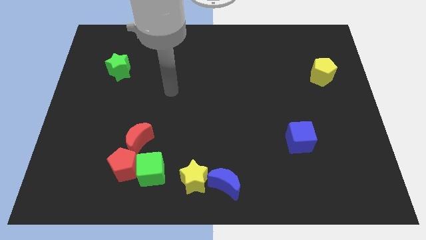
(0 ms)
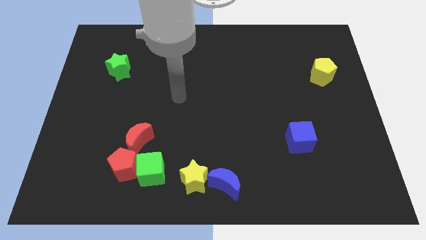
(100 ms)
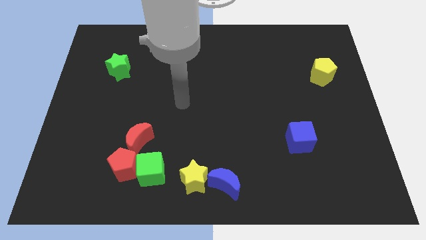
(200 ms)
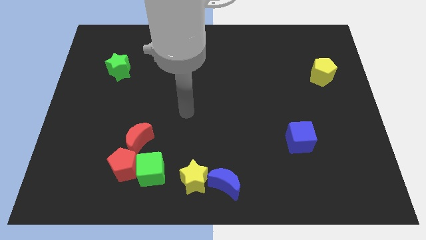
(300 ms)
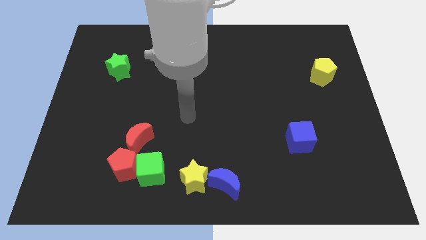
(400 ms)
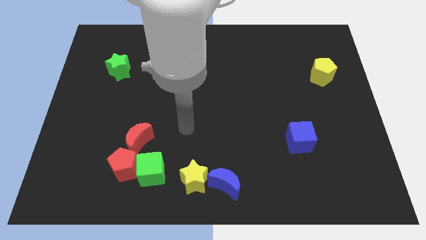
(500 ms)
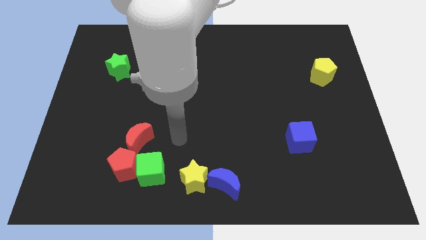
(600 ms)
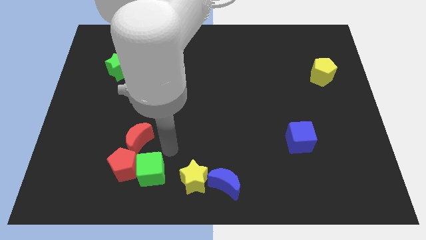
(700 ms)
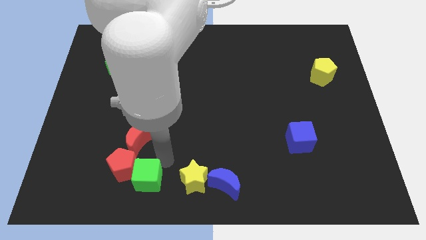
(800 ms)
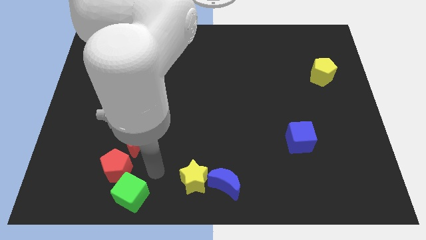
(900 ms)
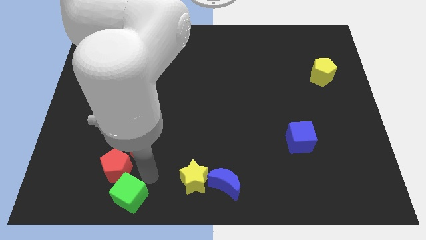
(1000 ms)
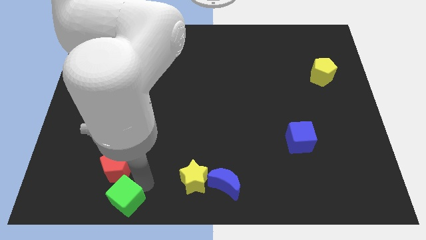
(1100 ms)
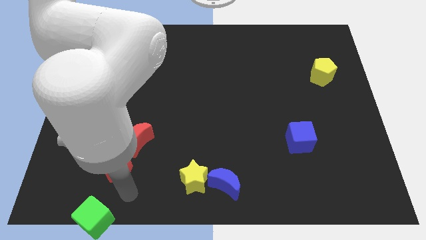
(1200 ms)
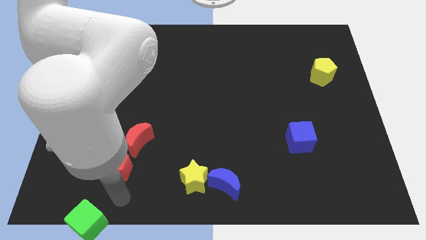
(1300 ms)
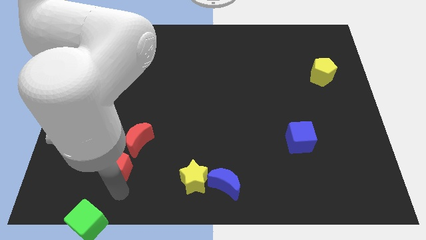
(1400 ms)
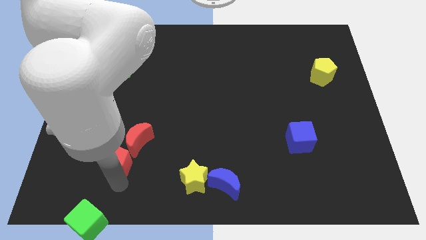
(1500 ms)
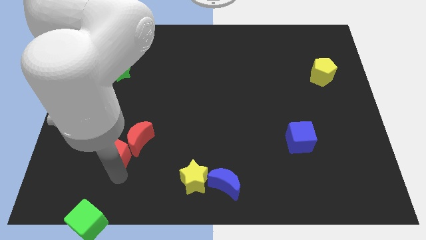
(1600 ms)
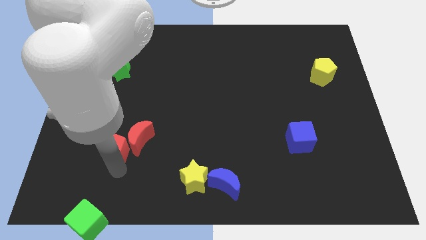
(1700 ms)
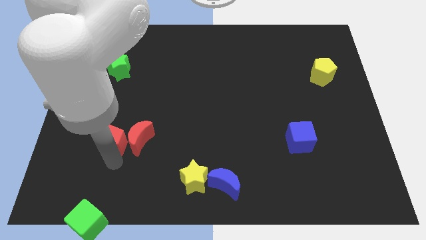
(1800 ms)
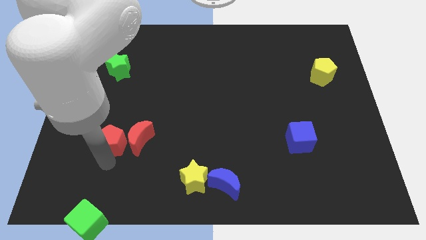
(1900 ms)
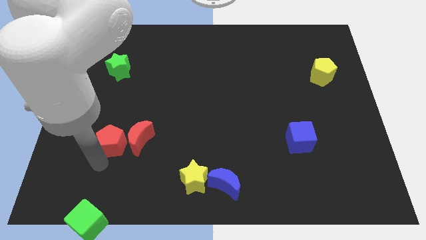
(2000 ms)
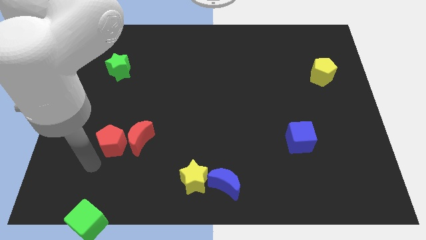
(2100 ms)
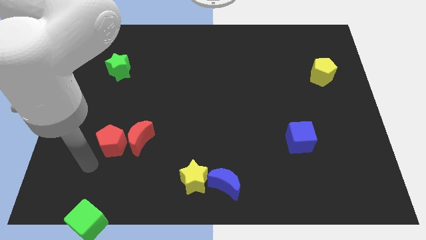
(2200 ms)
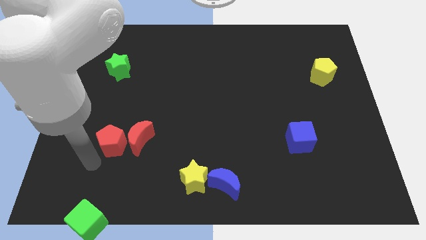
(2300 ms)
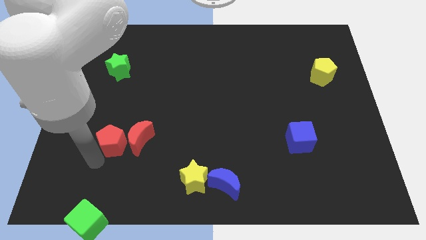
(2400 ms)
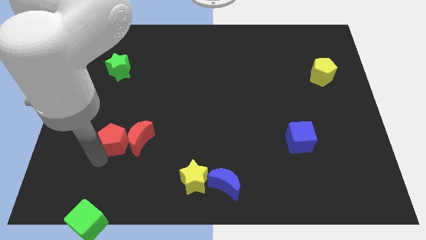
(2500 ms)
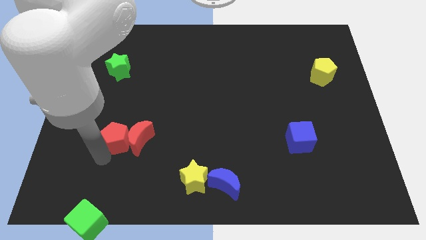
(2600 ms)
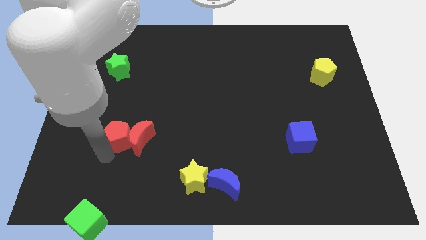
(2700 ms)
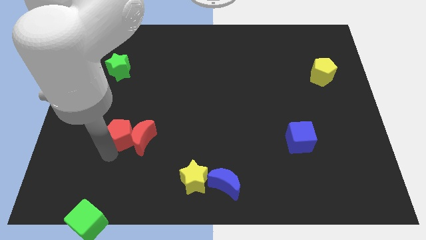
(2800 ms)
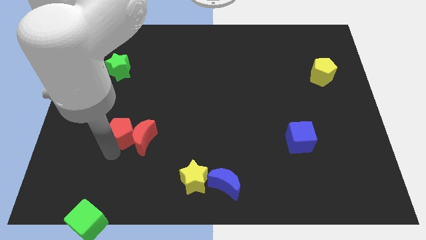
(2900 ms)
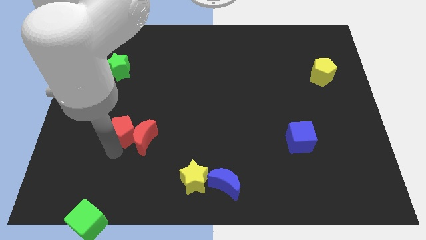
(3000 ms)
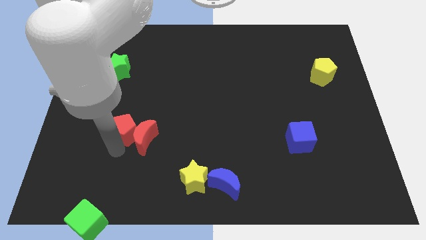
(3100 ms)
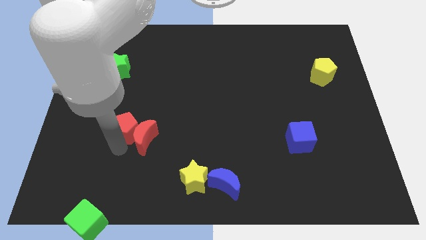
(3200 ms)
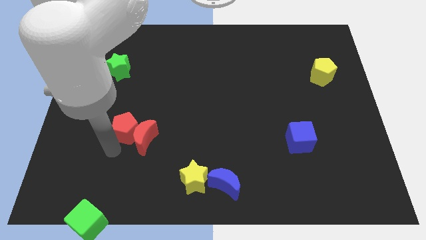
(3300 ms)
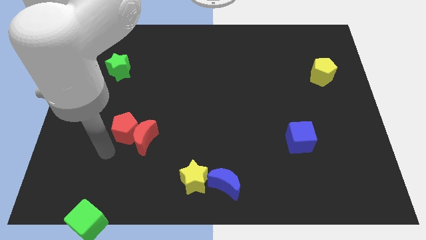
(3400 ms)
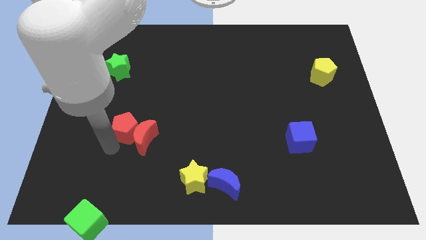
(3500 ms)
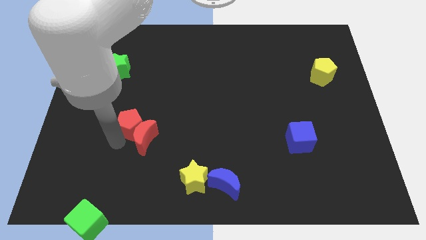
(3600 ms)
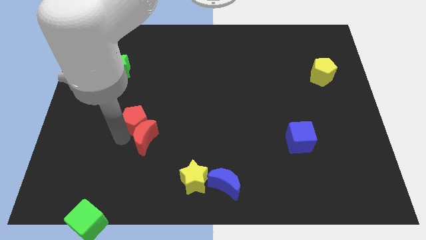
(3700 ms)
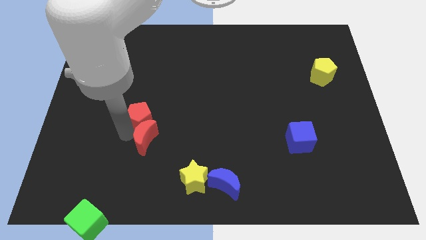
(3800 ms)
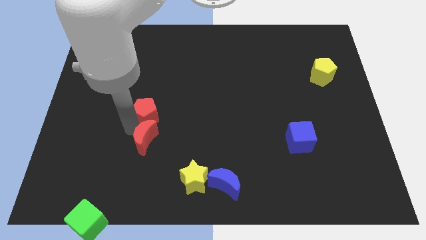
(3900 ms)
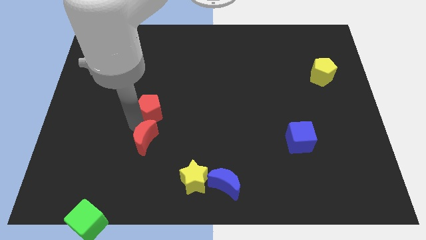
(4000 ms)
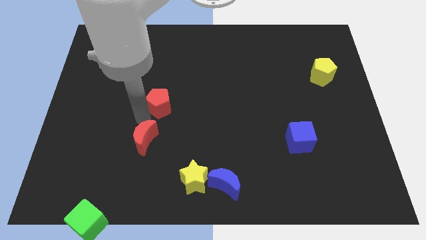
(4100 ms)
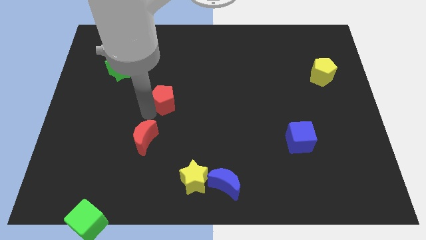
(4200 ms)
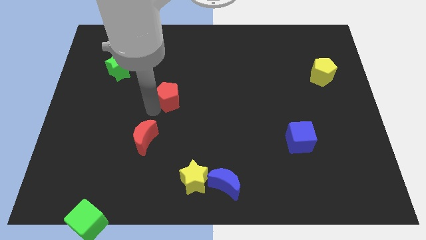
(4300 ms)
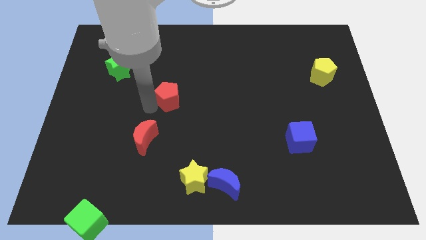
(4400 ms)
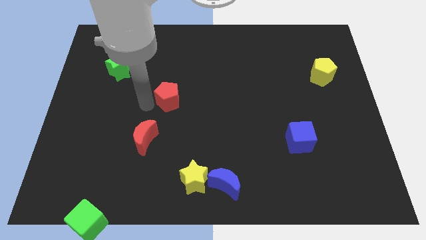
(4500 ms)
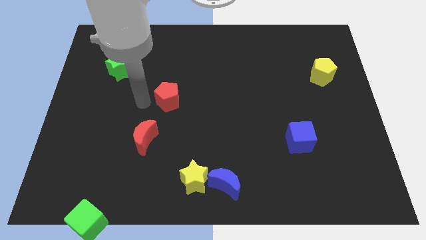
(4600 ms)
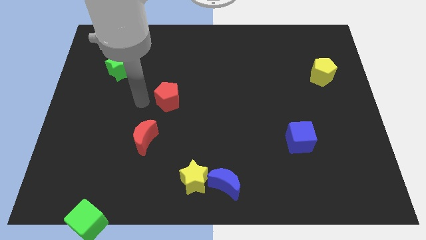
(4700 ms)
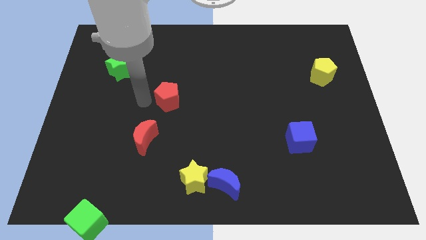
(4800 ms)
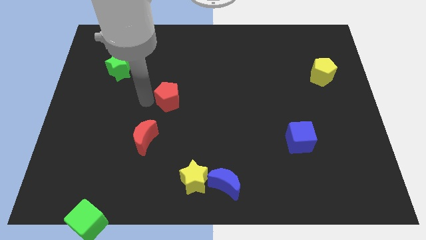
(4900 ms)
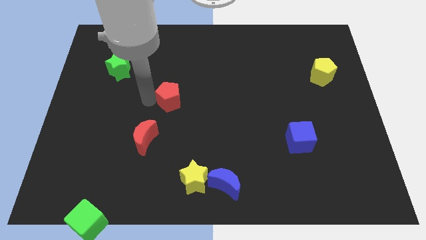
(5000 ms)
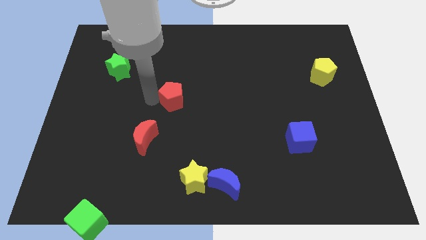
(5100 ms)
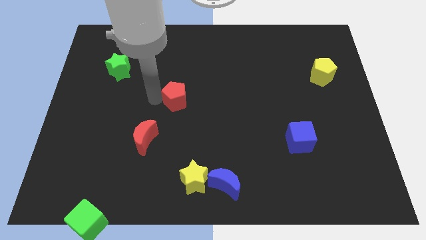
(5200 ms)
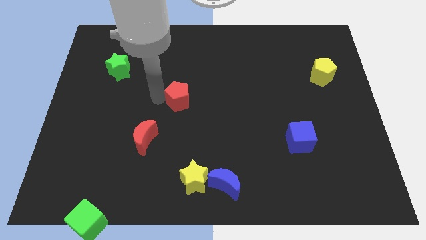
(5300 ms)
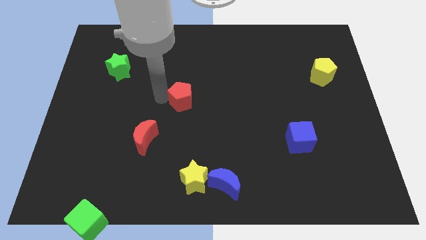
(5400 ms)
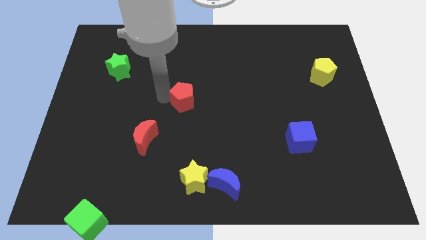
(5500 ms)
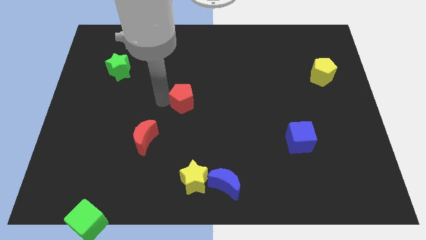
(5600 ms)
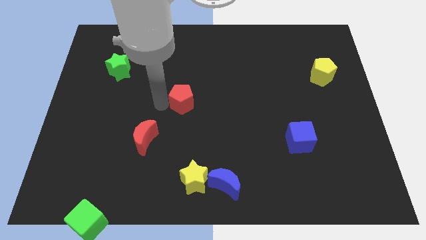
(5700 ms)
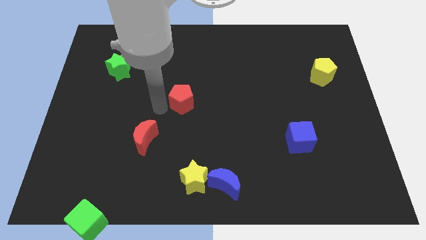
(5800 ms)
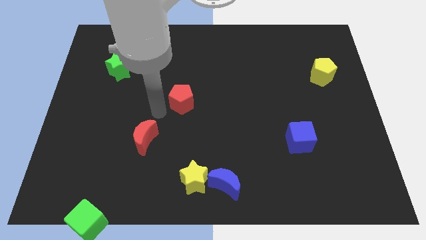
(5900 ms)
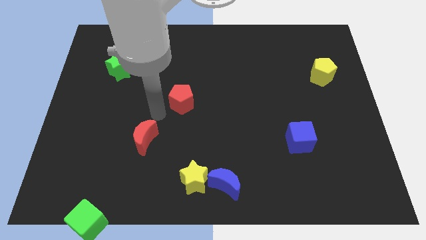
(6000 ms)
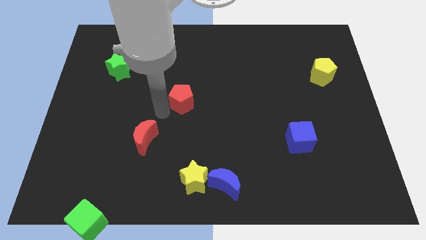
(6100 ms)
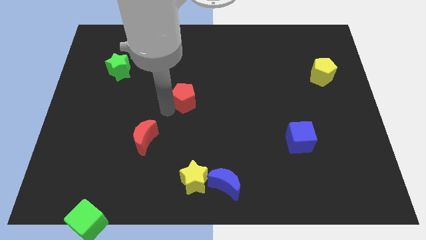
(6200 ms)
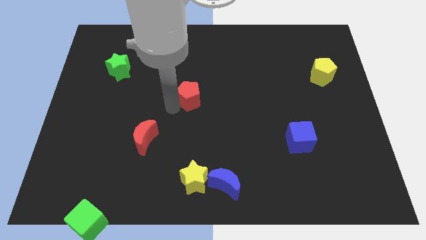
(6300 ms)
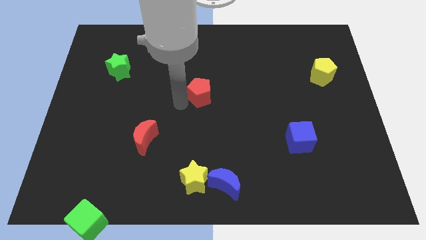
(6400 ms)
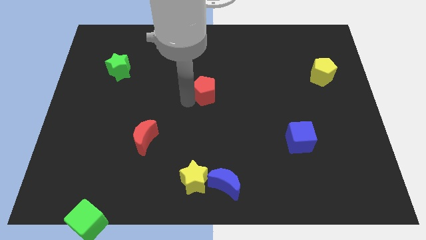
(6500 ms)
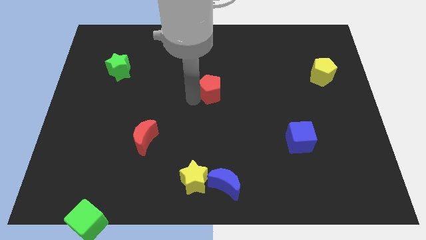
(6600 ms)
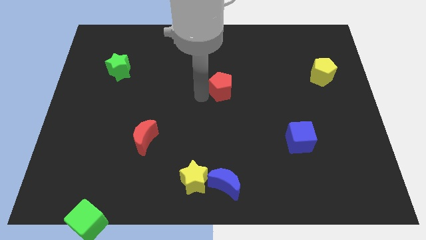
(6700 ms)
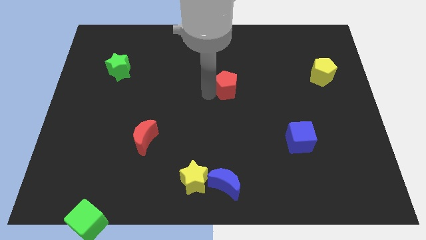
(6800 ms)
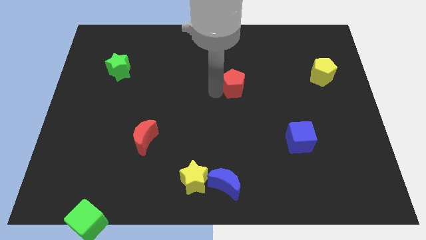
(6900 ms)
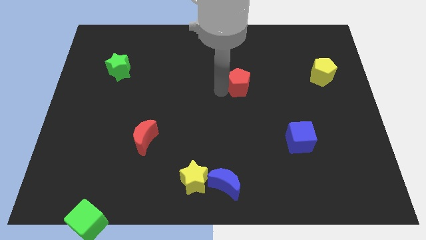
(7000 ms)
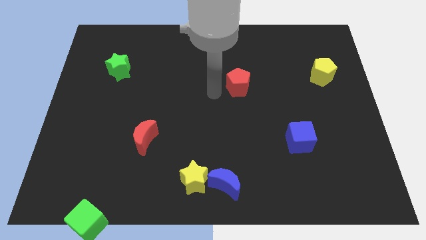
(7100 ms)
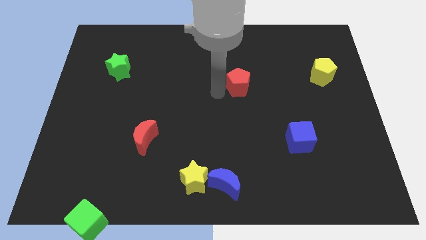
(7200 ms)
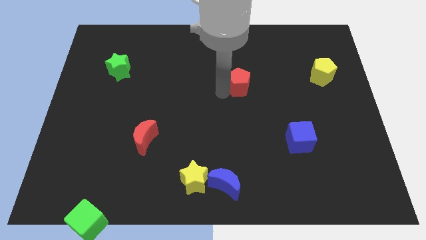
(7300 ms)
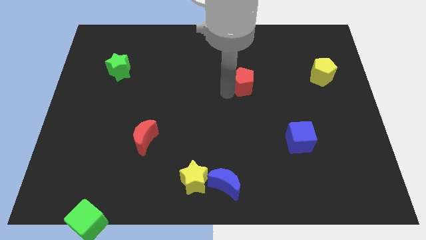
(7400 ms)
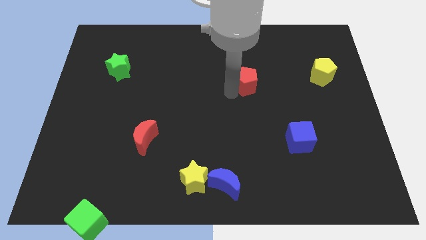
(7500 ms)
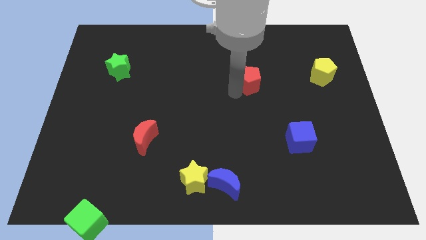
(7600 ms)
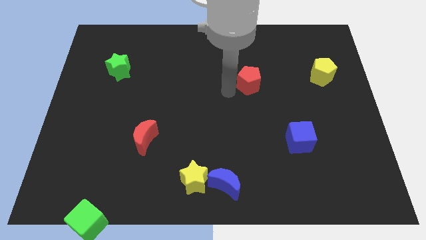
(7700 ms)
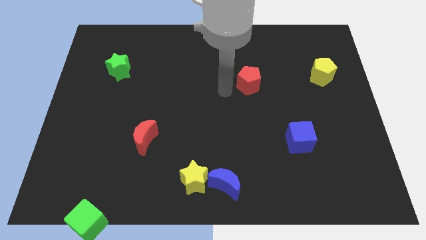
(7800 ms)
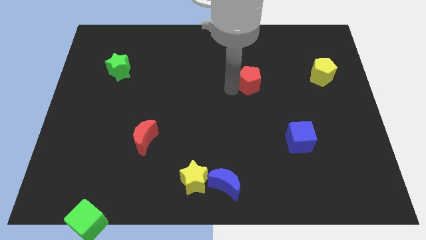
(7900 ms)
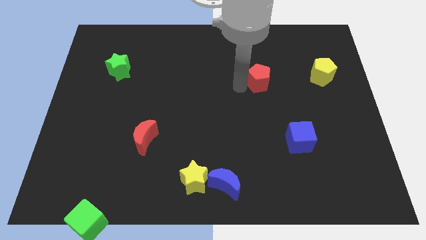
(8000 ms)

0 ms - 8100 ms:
push the red pentagon just left of the yellow pentagon
